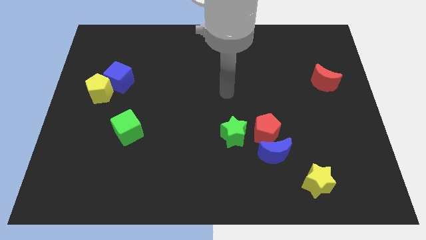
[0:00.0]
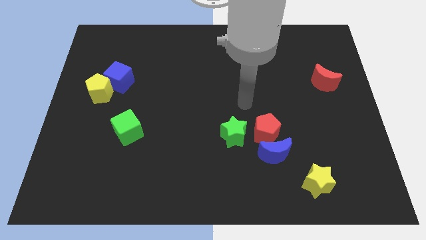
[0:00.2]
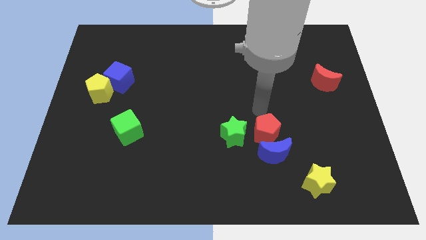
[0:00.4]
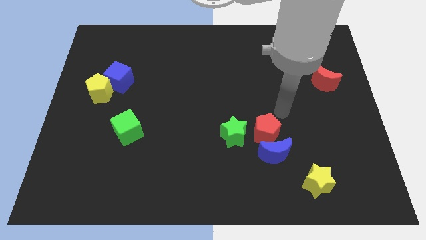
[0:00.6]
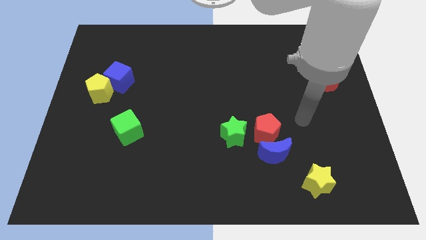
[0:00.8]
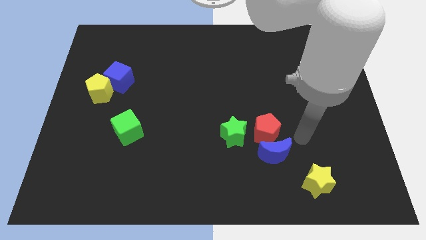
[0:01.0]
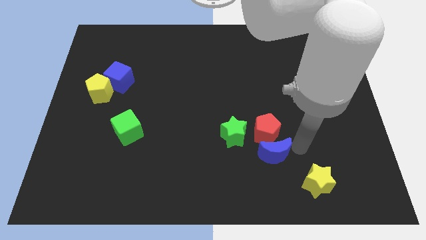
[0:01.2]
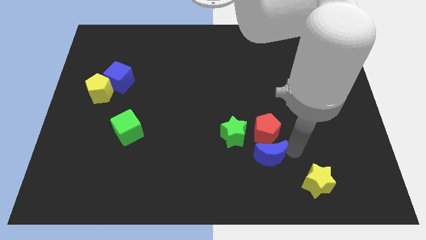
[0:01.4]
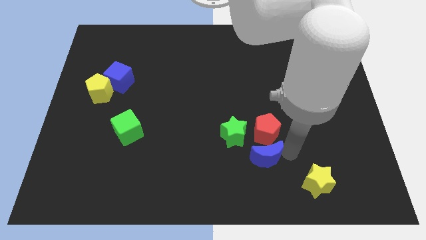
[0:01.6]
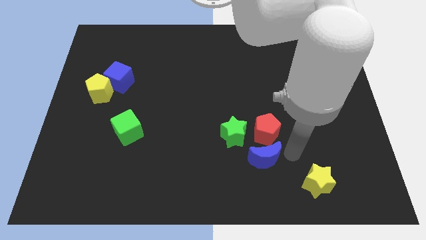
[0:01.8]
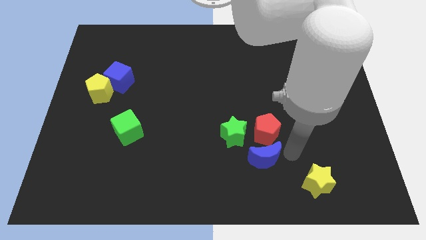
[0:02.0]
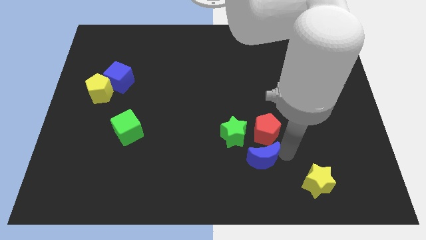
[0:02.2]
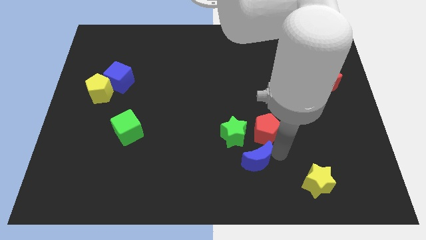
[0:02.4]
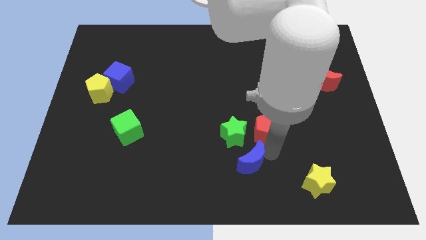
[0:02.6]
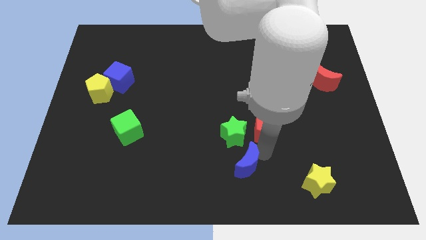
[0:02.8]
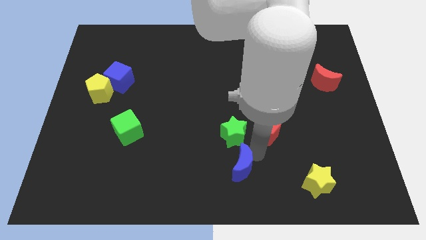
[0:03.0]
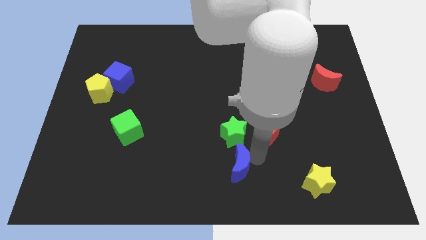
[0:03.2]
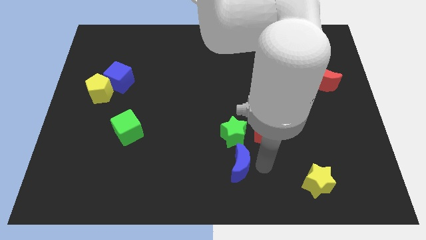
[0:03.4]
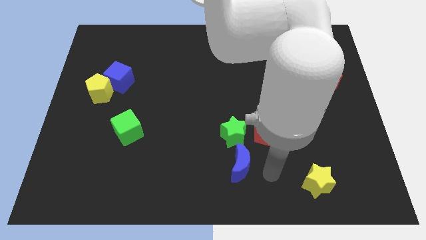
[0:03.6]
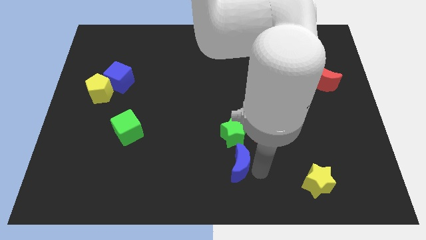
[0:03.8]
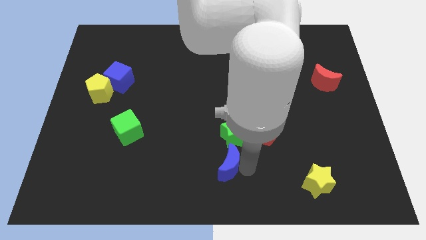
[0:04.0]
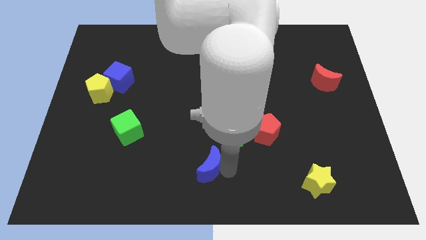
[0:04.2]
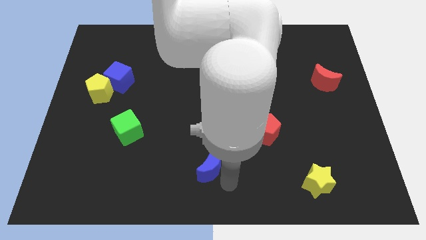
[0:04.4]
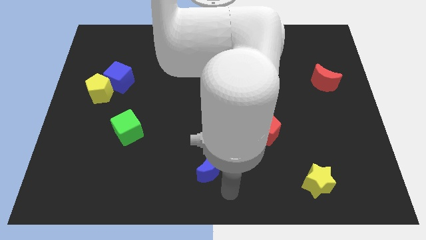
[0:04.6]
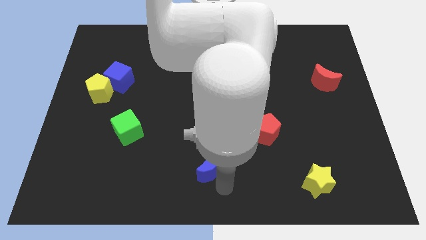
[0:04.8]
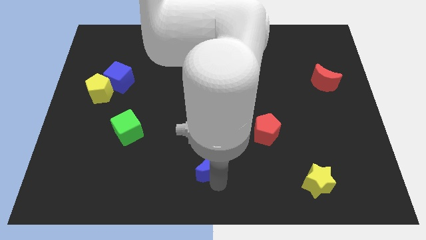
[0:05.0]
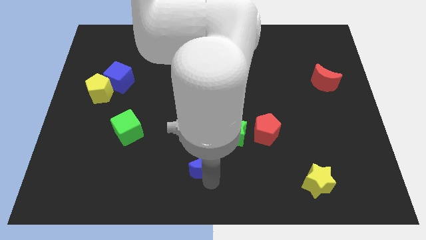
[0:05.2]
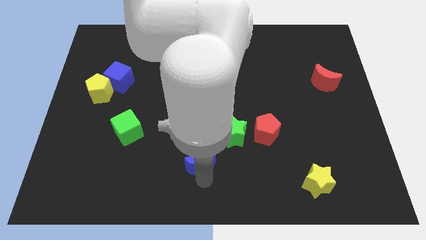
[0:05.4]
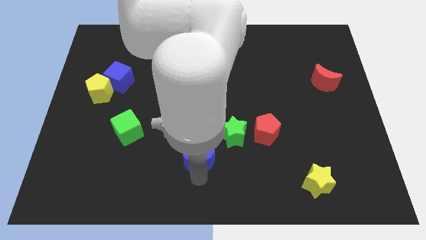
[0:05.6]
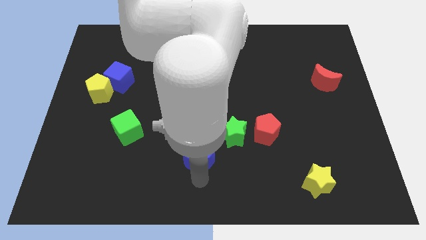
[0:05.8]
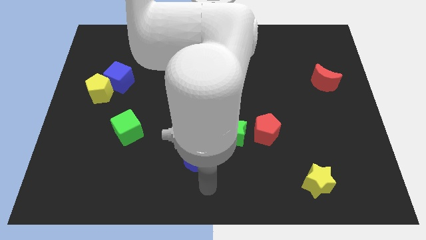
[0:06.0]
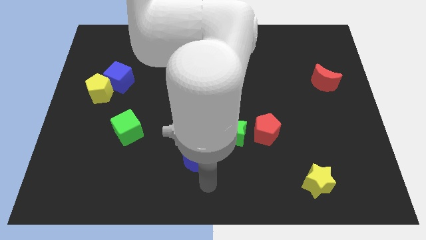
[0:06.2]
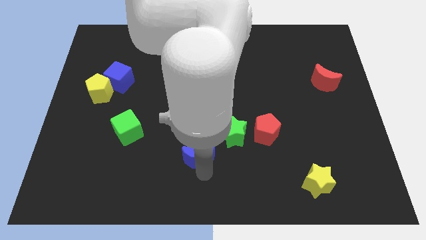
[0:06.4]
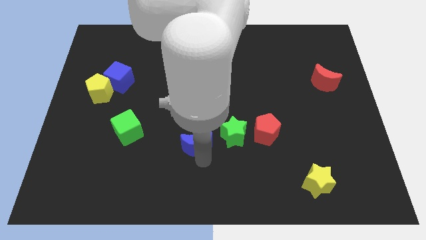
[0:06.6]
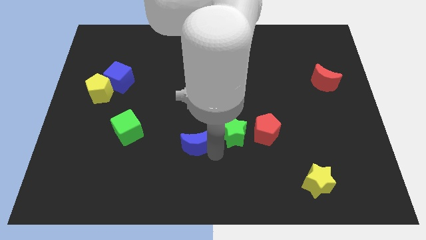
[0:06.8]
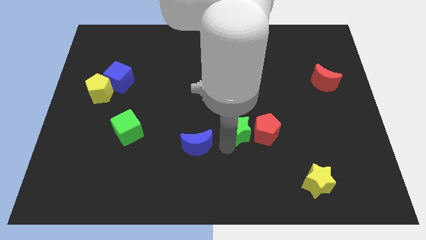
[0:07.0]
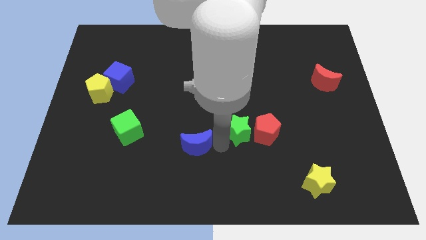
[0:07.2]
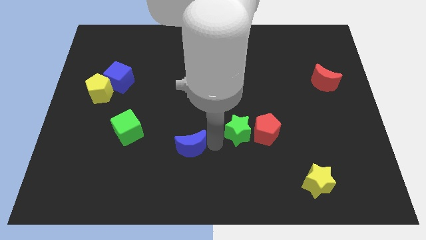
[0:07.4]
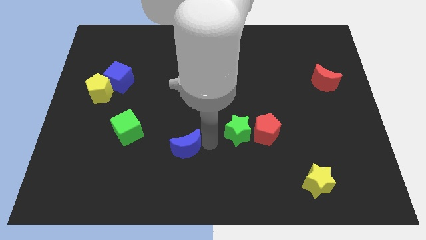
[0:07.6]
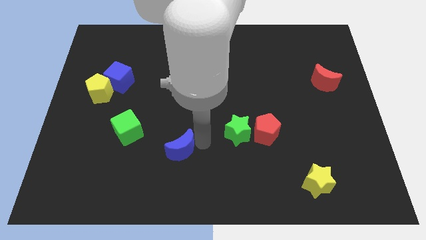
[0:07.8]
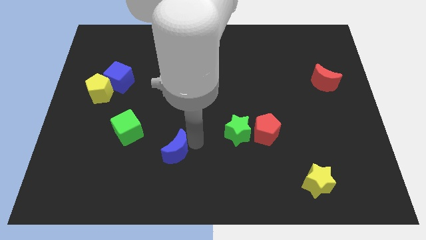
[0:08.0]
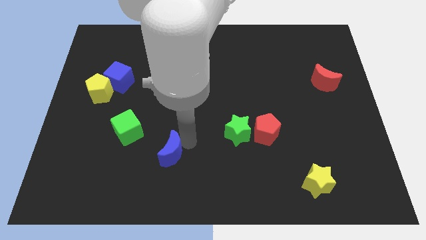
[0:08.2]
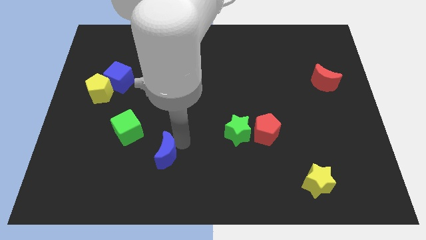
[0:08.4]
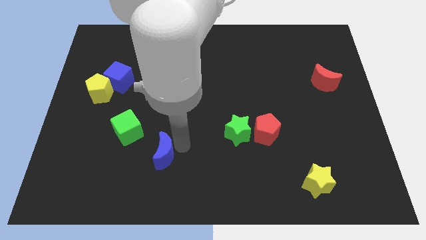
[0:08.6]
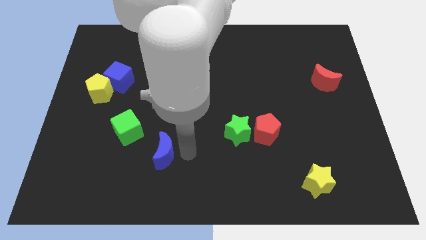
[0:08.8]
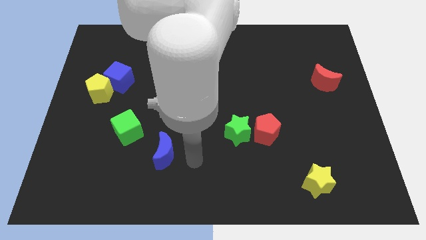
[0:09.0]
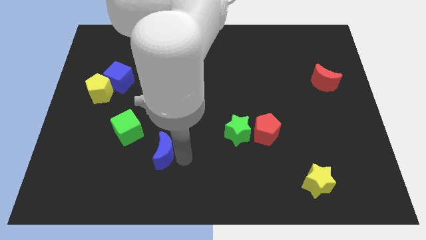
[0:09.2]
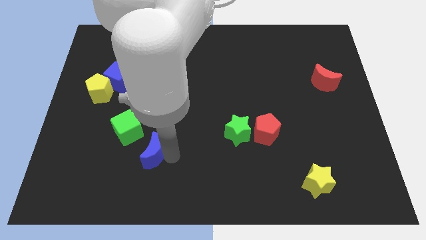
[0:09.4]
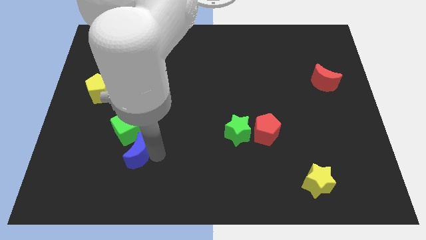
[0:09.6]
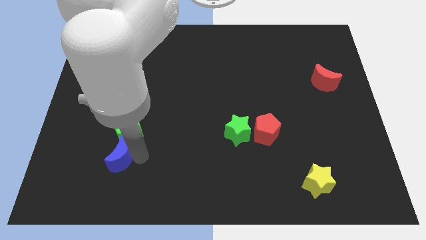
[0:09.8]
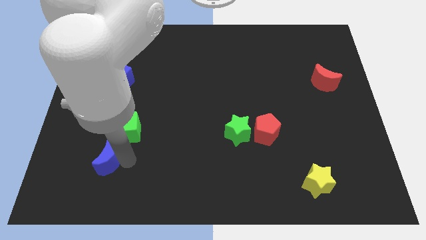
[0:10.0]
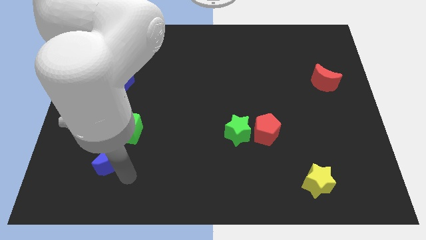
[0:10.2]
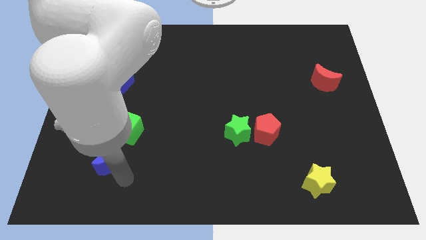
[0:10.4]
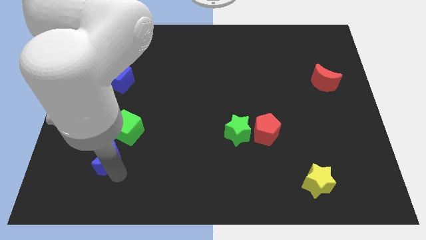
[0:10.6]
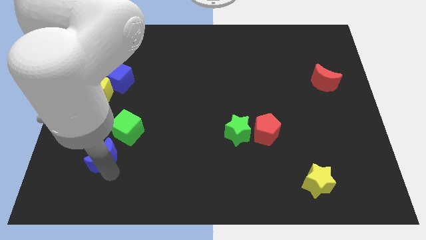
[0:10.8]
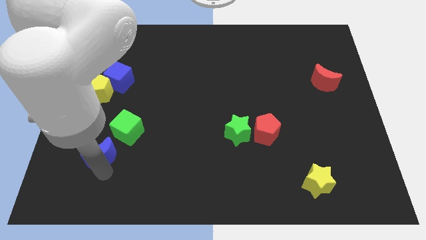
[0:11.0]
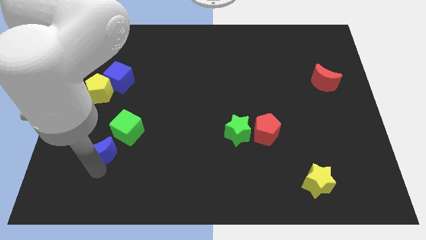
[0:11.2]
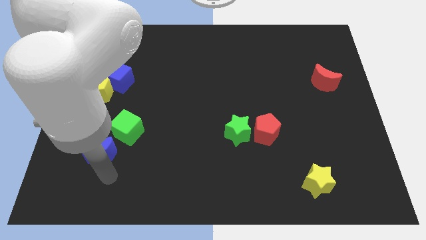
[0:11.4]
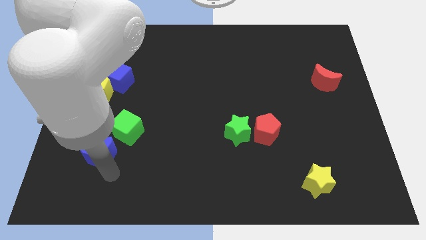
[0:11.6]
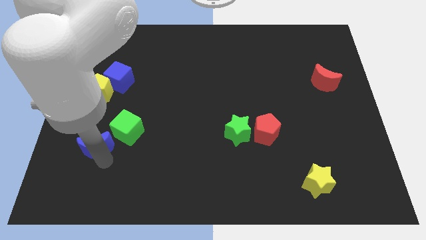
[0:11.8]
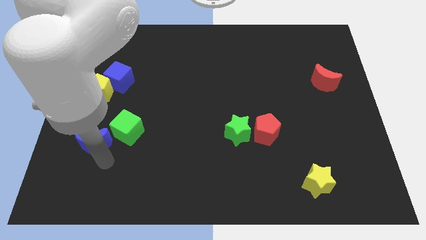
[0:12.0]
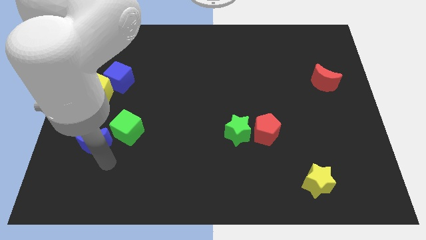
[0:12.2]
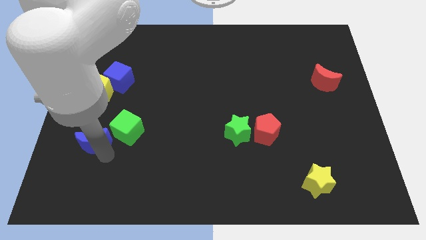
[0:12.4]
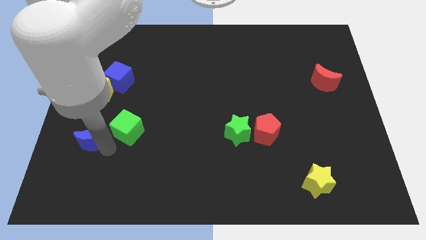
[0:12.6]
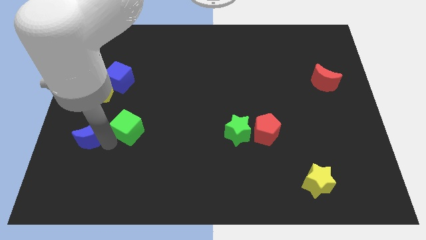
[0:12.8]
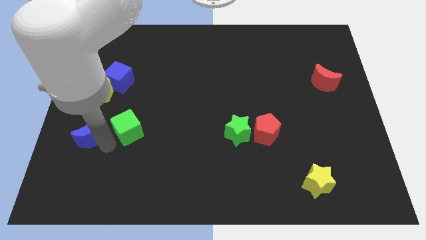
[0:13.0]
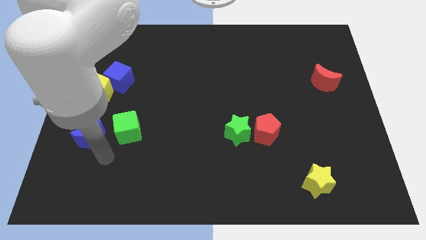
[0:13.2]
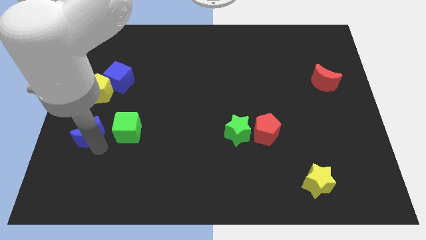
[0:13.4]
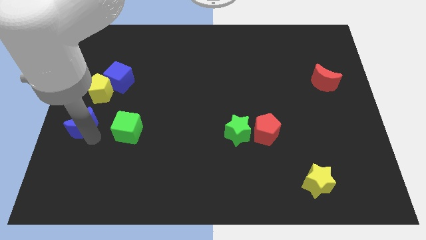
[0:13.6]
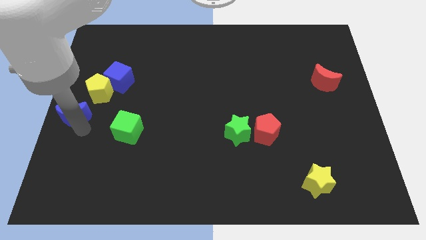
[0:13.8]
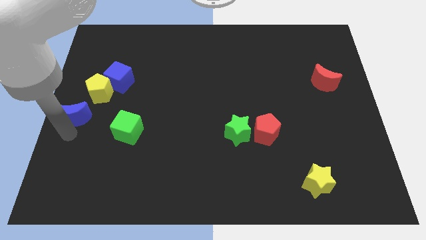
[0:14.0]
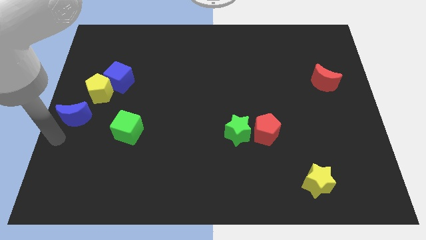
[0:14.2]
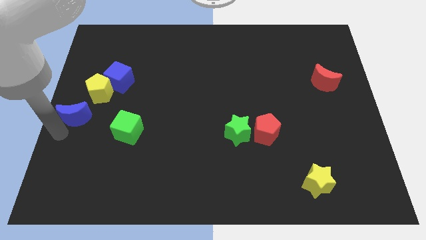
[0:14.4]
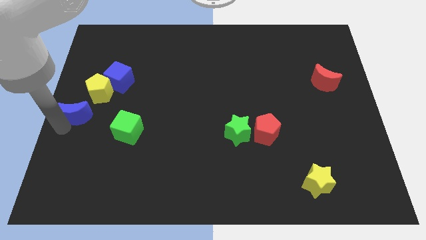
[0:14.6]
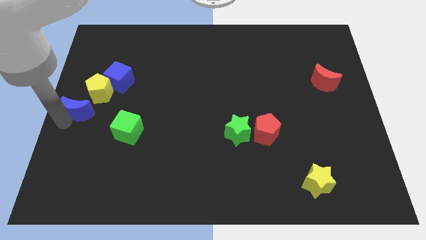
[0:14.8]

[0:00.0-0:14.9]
put the blue moon to the bottom left of the blue cube
